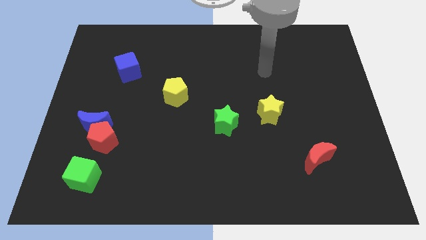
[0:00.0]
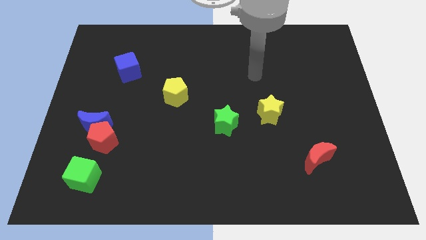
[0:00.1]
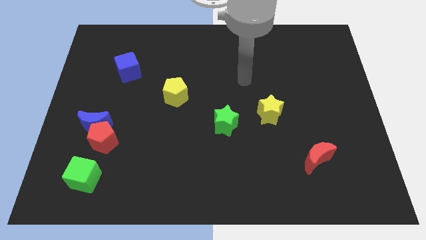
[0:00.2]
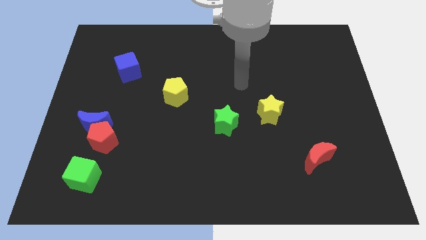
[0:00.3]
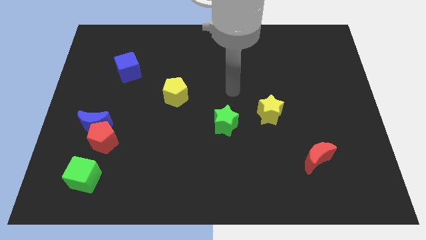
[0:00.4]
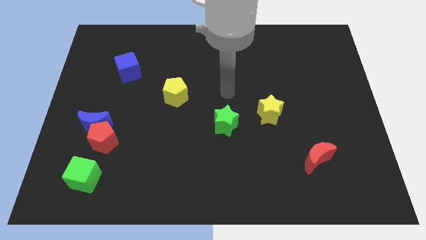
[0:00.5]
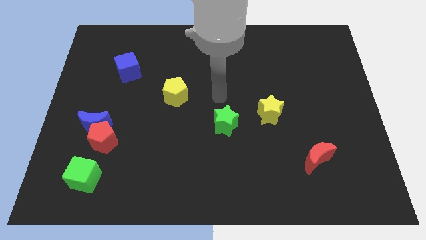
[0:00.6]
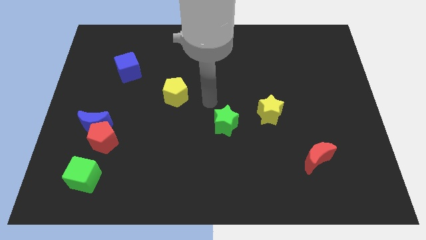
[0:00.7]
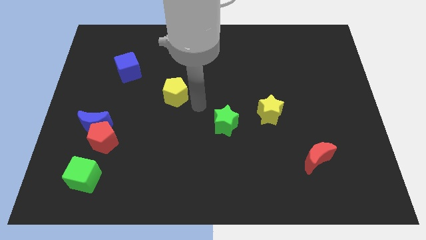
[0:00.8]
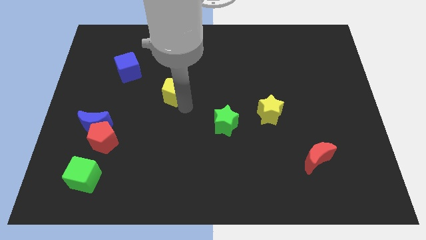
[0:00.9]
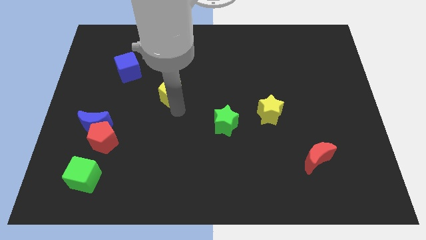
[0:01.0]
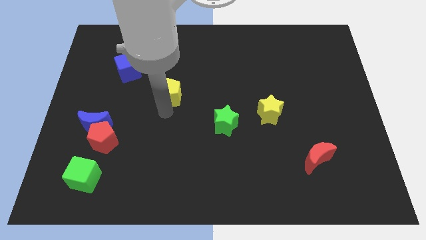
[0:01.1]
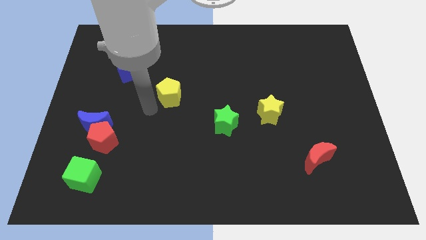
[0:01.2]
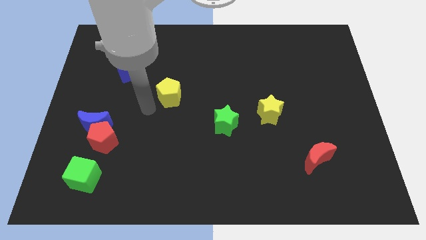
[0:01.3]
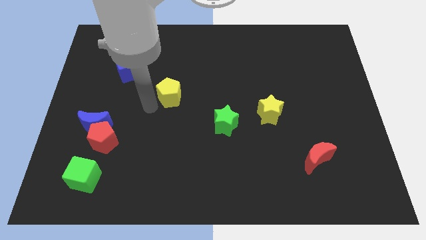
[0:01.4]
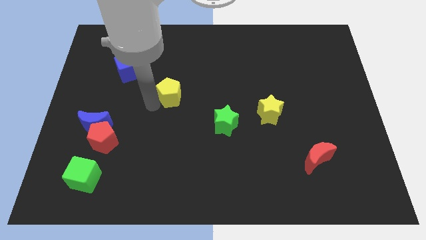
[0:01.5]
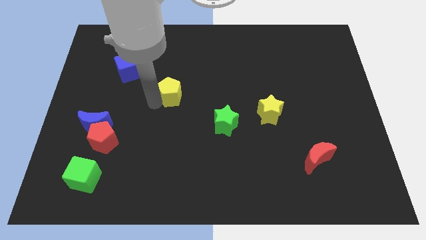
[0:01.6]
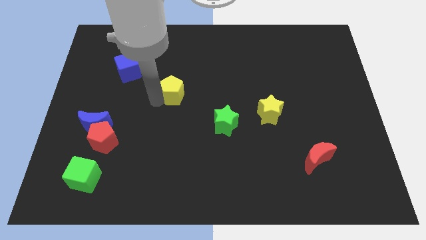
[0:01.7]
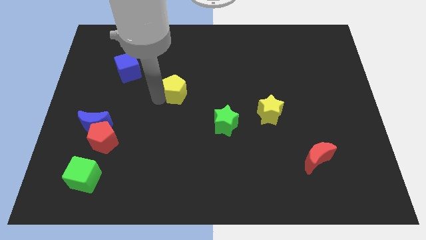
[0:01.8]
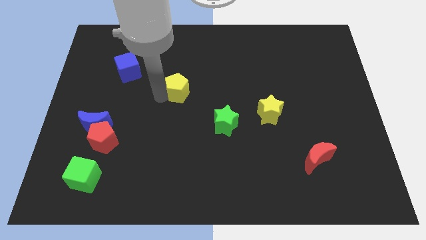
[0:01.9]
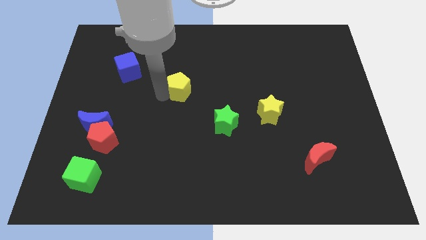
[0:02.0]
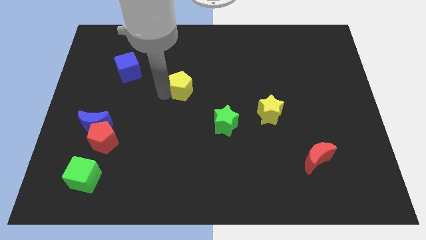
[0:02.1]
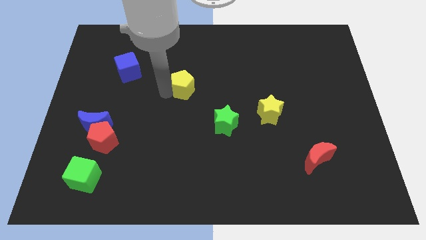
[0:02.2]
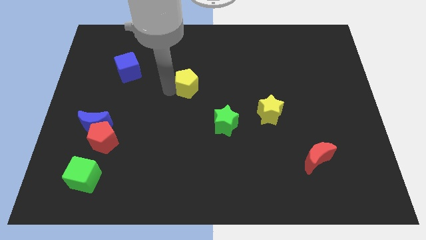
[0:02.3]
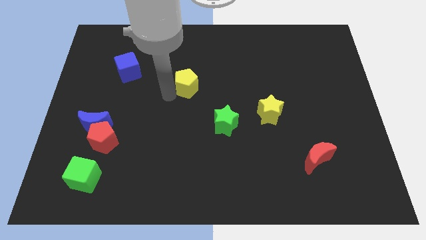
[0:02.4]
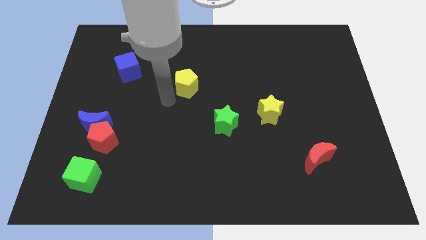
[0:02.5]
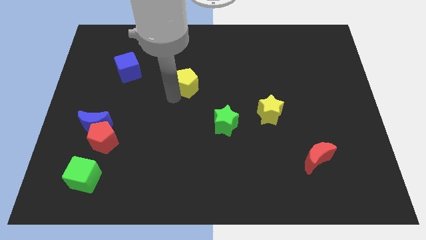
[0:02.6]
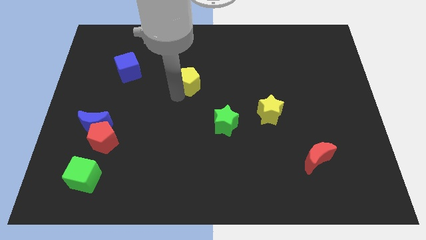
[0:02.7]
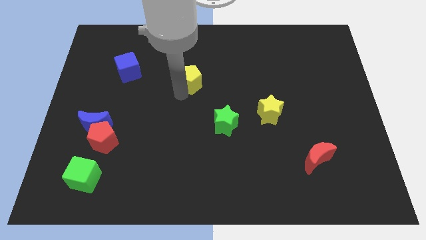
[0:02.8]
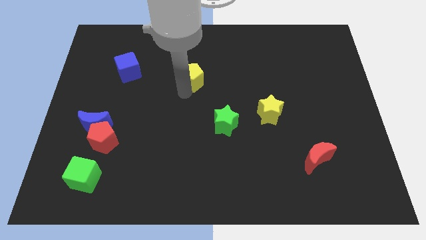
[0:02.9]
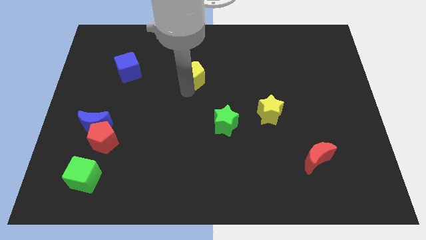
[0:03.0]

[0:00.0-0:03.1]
slide the yellow pentagon a little bit up and right

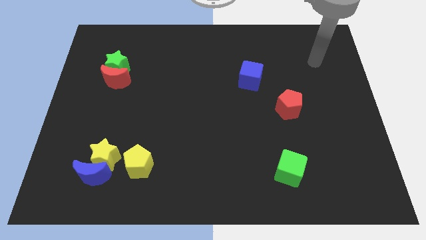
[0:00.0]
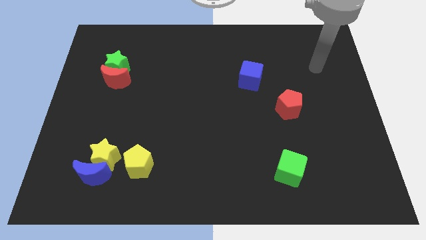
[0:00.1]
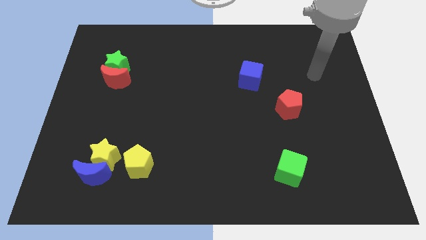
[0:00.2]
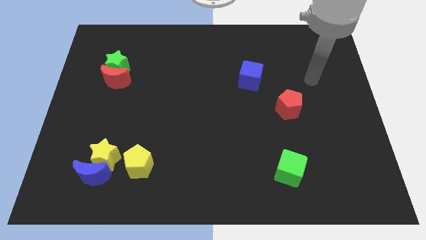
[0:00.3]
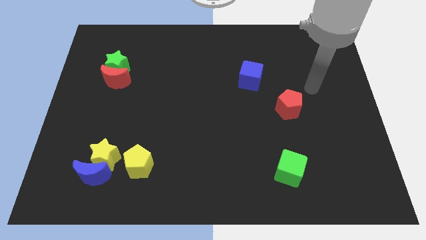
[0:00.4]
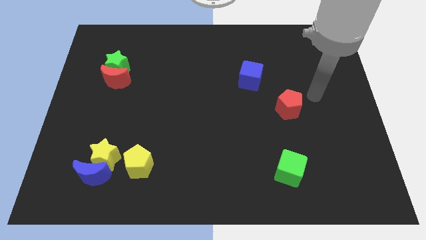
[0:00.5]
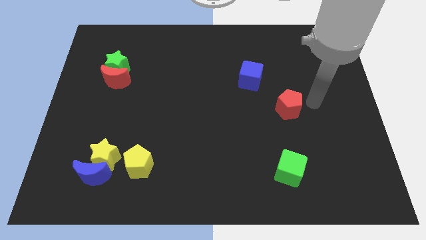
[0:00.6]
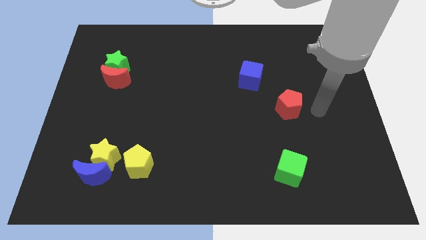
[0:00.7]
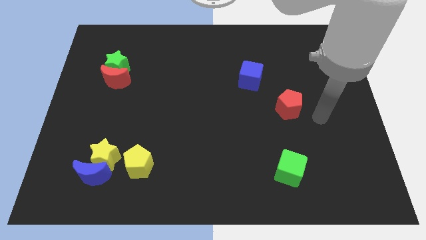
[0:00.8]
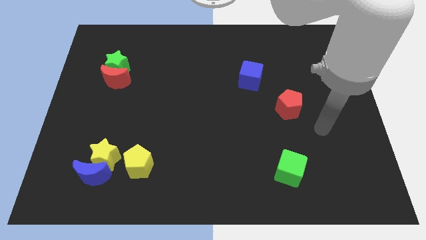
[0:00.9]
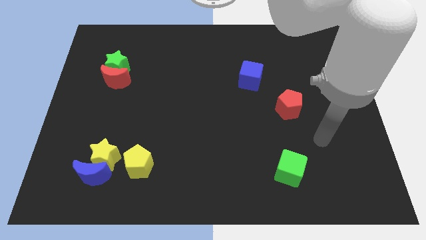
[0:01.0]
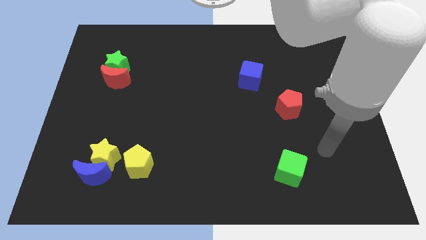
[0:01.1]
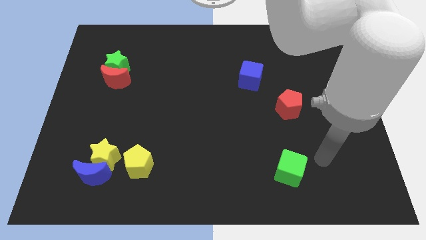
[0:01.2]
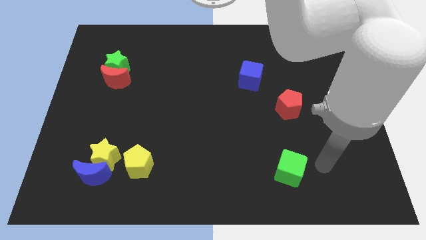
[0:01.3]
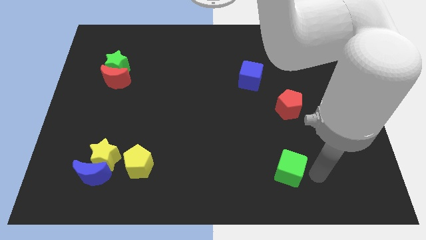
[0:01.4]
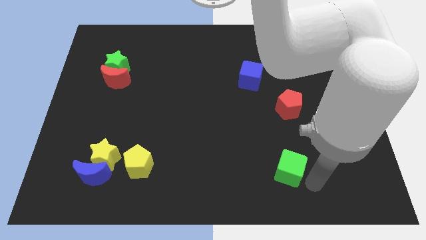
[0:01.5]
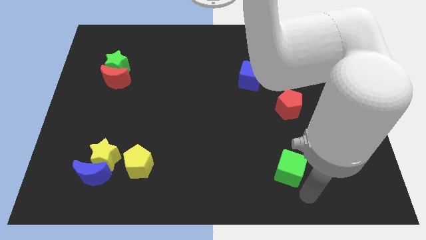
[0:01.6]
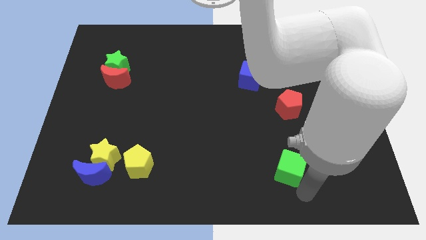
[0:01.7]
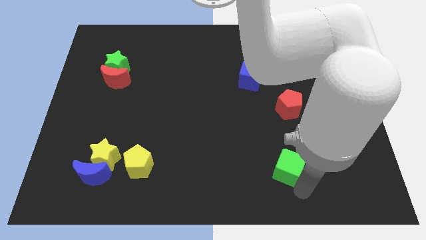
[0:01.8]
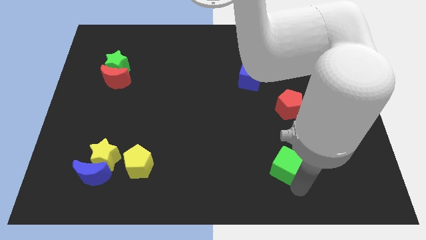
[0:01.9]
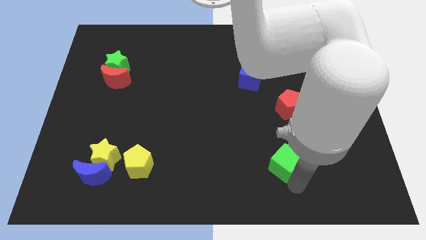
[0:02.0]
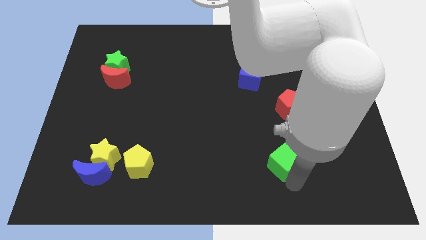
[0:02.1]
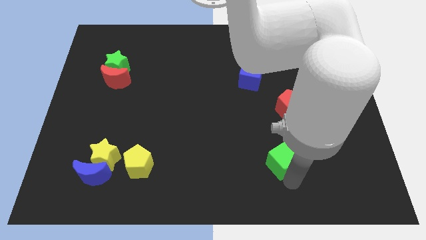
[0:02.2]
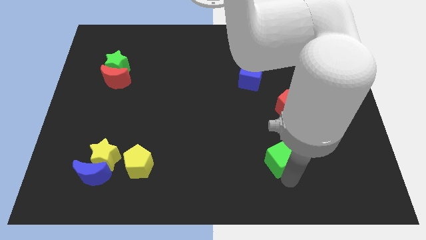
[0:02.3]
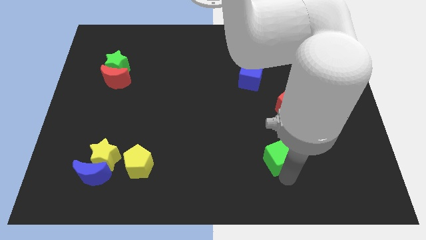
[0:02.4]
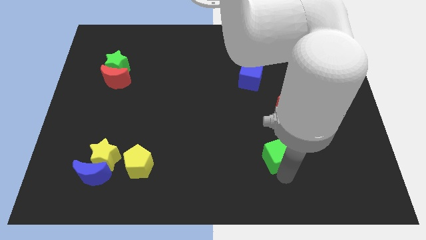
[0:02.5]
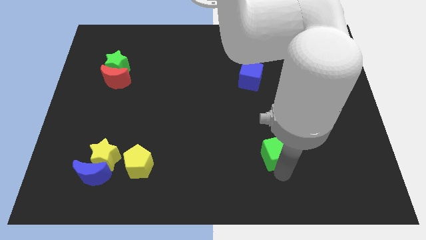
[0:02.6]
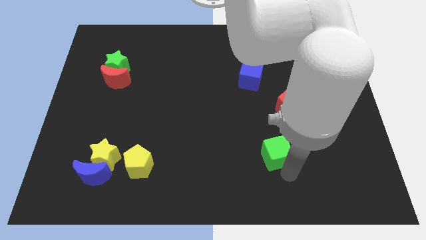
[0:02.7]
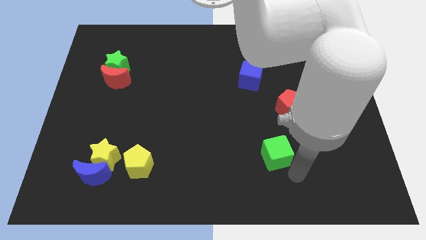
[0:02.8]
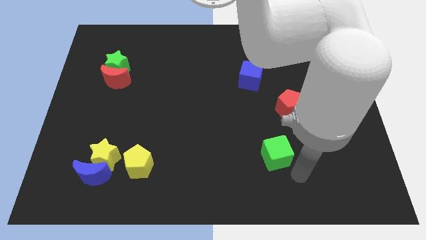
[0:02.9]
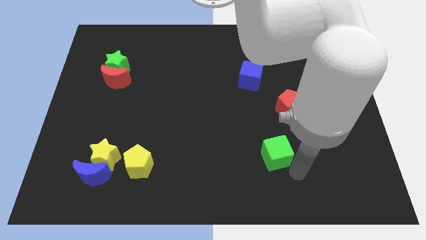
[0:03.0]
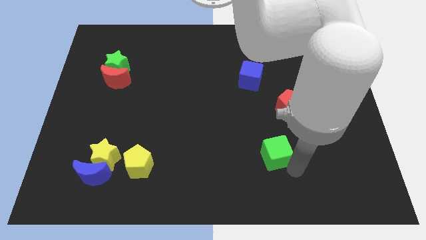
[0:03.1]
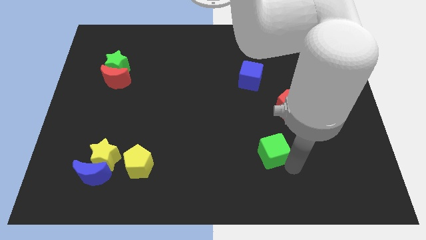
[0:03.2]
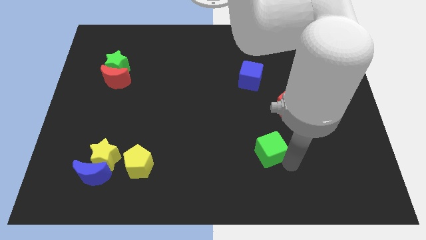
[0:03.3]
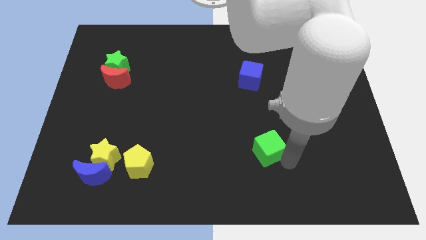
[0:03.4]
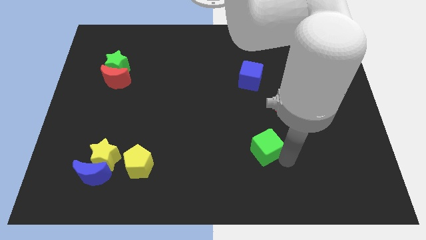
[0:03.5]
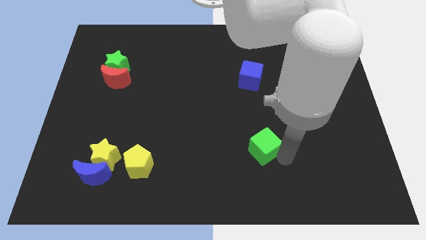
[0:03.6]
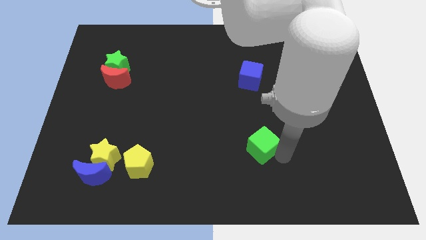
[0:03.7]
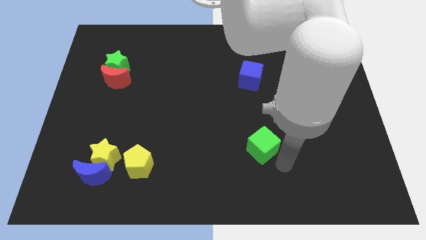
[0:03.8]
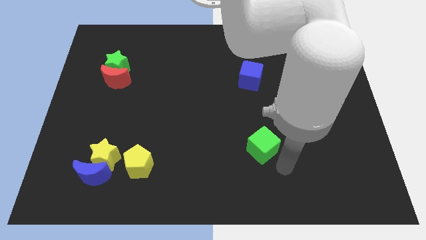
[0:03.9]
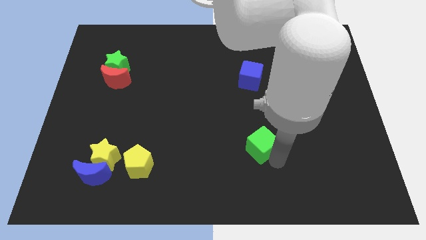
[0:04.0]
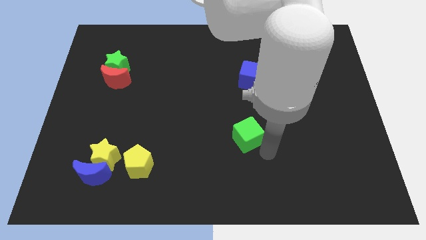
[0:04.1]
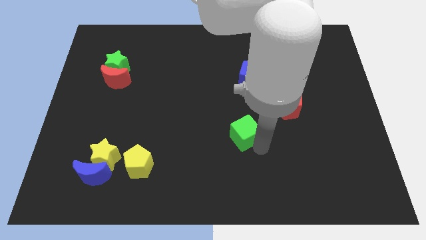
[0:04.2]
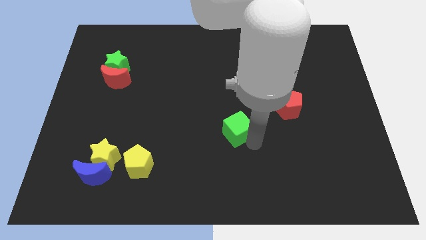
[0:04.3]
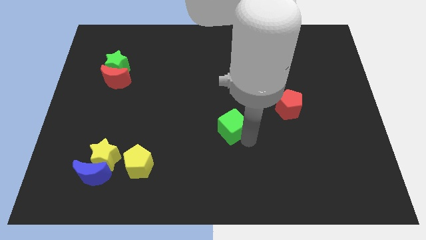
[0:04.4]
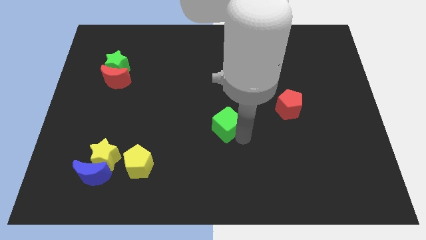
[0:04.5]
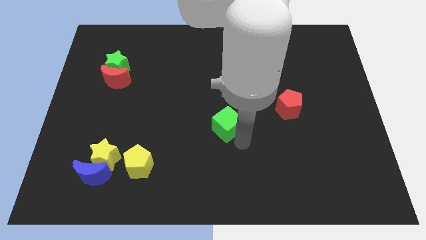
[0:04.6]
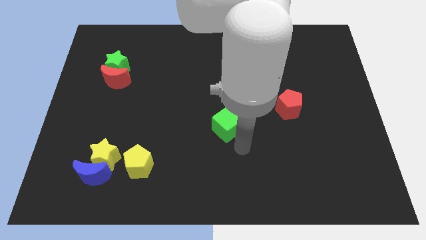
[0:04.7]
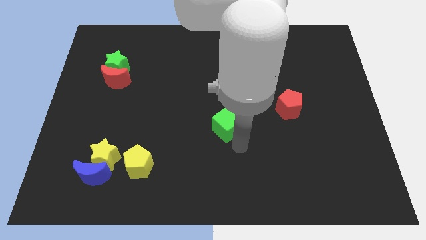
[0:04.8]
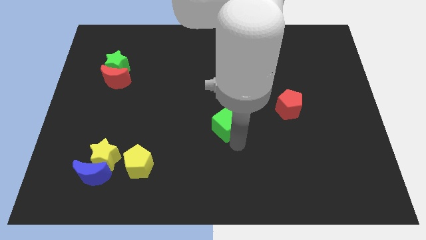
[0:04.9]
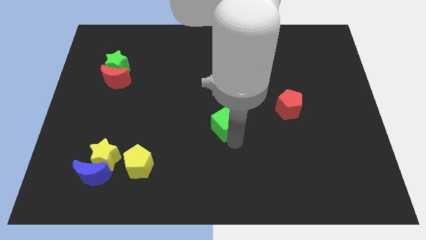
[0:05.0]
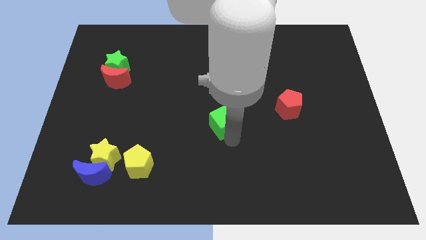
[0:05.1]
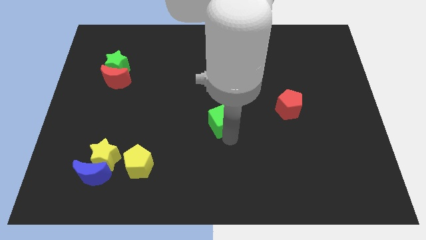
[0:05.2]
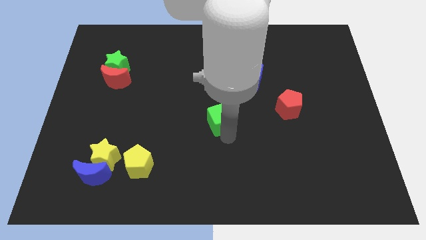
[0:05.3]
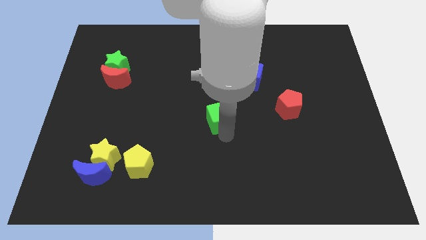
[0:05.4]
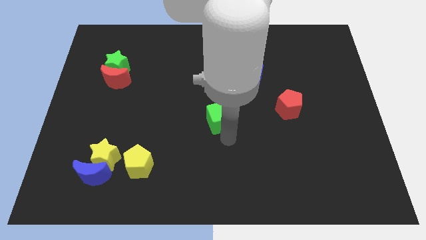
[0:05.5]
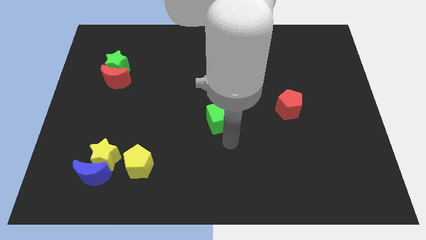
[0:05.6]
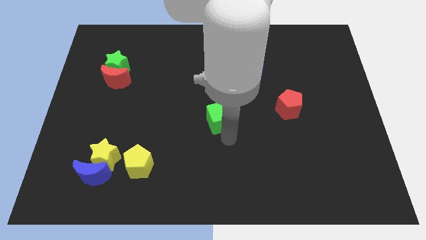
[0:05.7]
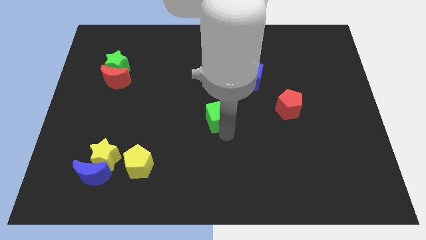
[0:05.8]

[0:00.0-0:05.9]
push the green cube upwards and left diagonally
